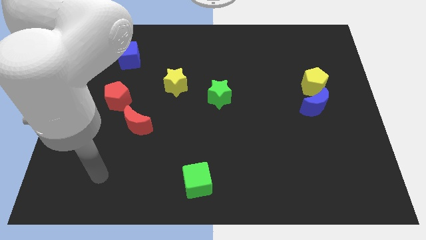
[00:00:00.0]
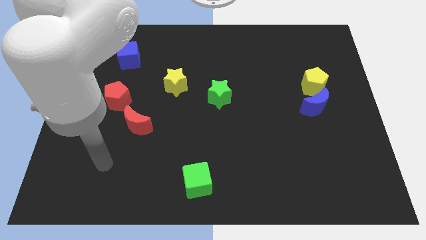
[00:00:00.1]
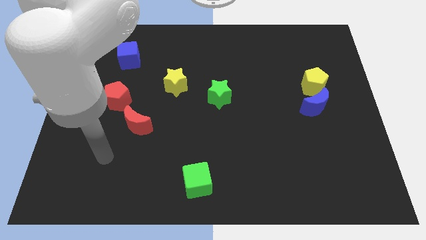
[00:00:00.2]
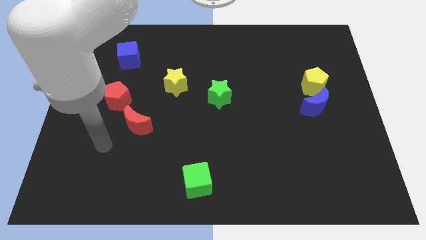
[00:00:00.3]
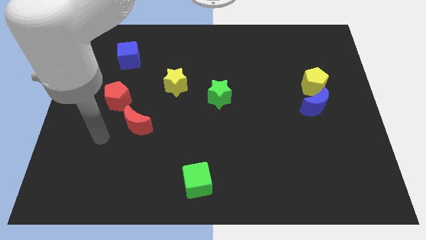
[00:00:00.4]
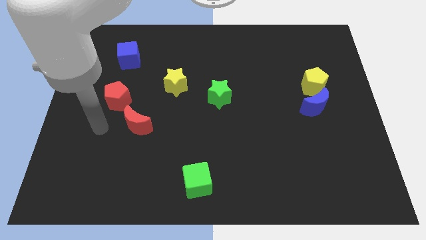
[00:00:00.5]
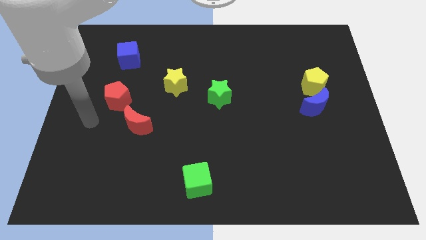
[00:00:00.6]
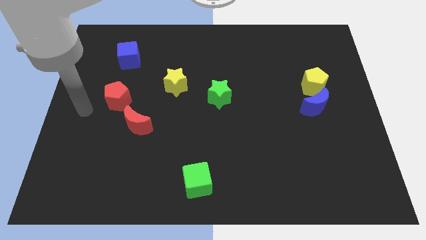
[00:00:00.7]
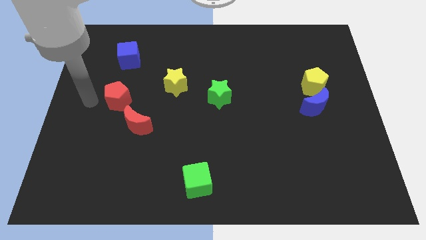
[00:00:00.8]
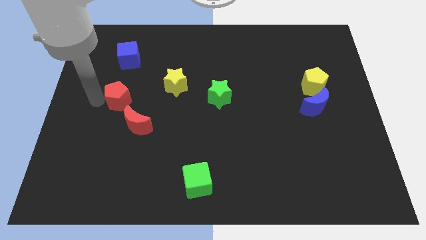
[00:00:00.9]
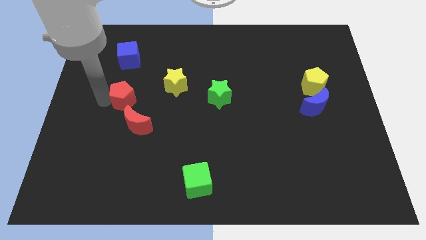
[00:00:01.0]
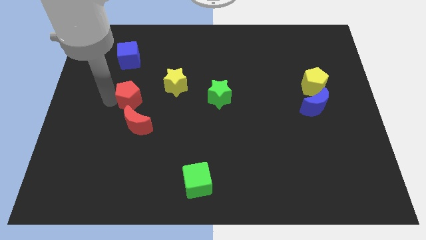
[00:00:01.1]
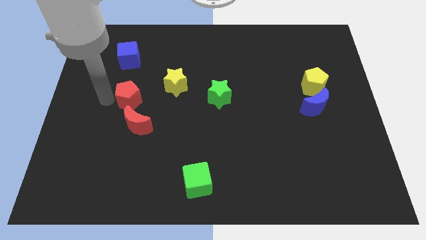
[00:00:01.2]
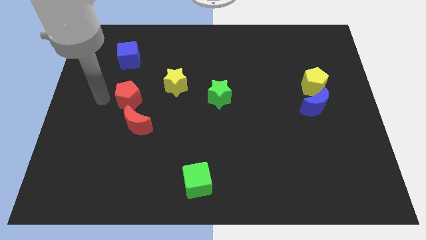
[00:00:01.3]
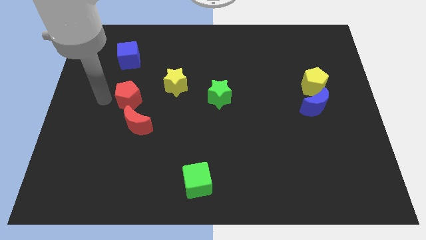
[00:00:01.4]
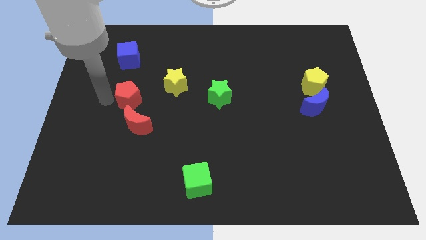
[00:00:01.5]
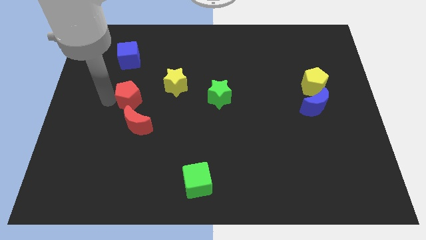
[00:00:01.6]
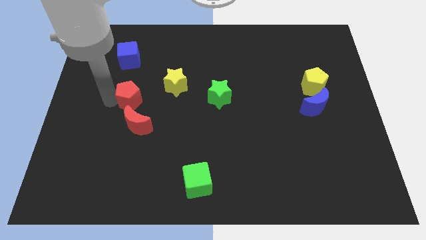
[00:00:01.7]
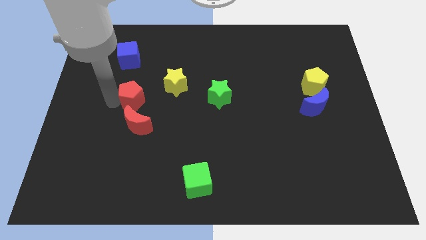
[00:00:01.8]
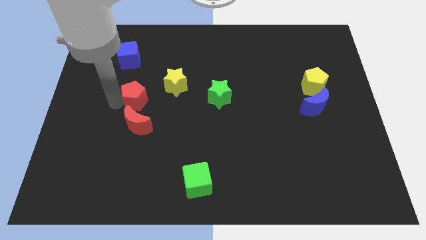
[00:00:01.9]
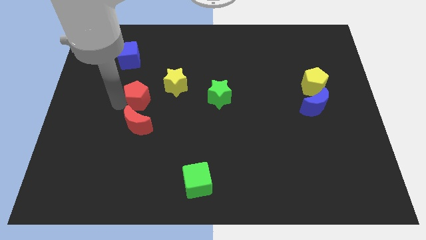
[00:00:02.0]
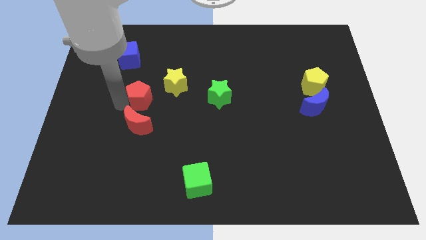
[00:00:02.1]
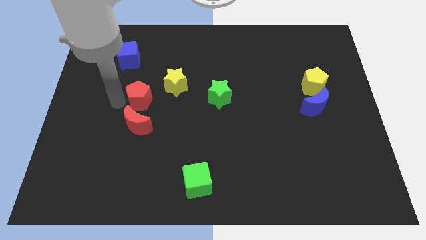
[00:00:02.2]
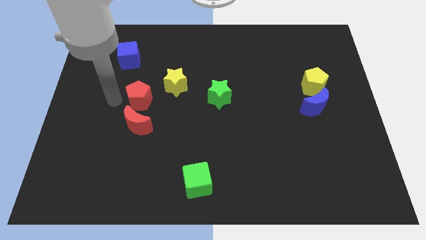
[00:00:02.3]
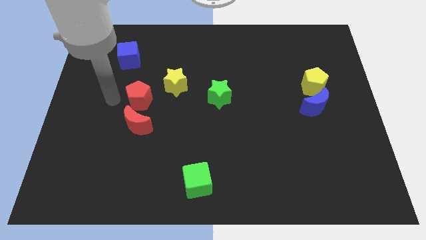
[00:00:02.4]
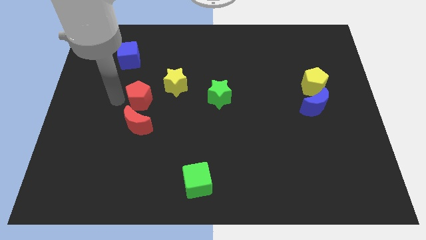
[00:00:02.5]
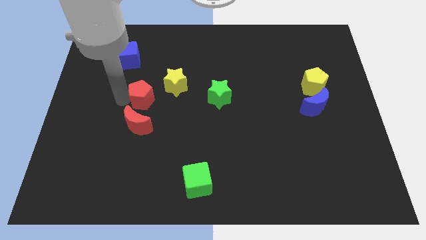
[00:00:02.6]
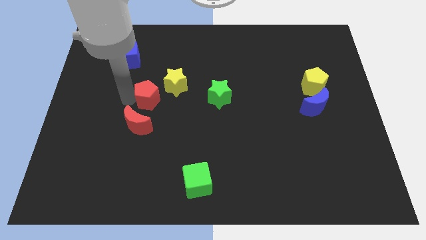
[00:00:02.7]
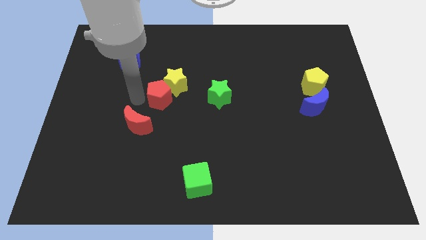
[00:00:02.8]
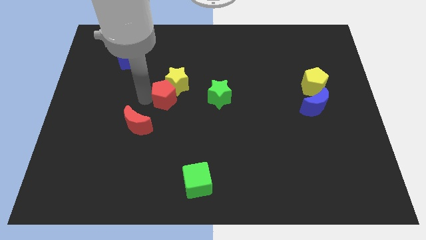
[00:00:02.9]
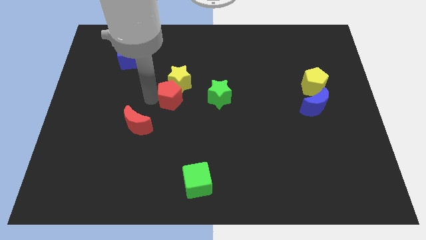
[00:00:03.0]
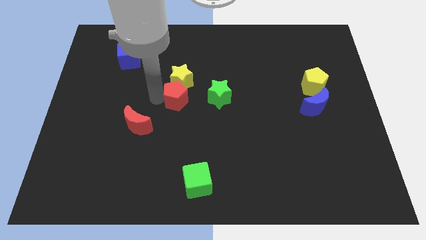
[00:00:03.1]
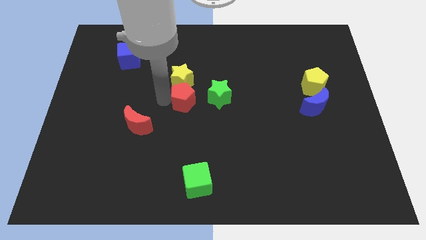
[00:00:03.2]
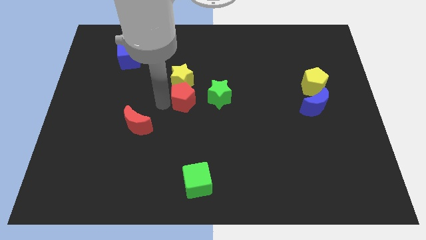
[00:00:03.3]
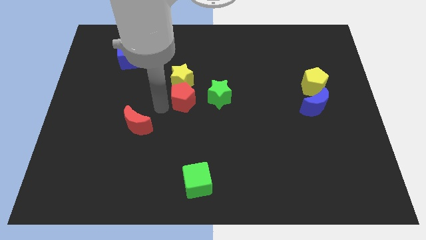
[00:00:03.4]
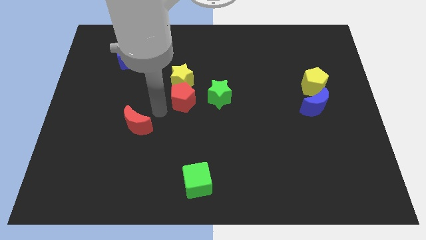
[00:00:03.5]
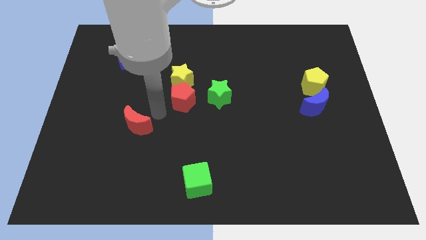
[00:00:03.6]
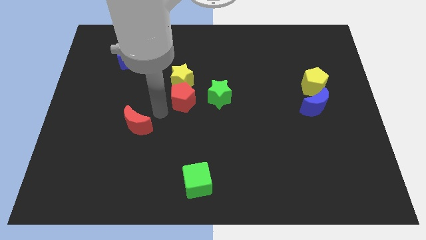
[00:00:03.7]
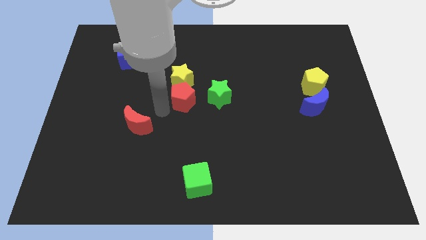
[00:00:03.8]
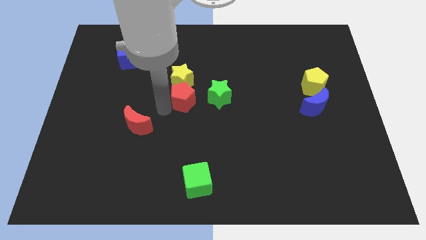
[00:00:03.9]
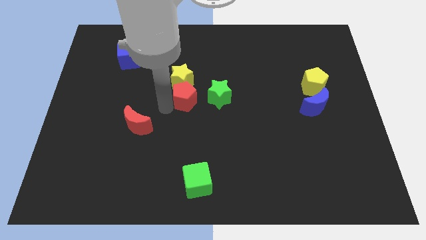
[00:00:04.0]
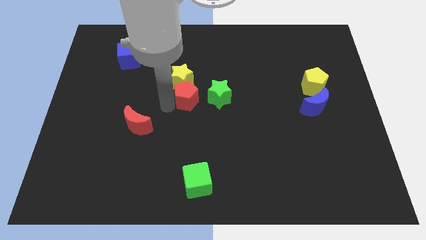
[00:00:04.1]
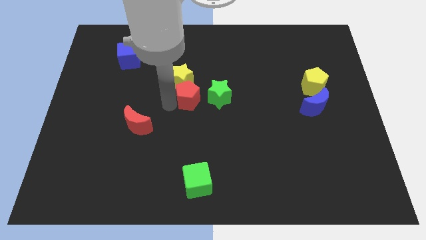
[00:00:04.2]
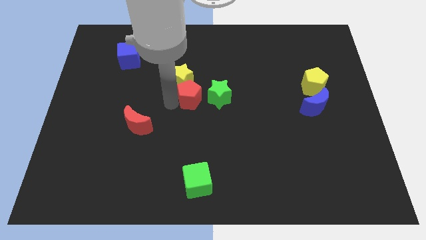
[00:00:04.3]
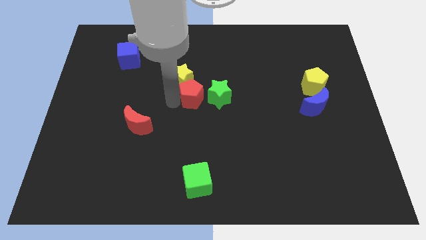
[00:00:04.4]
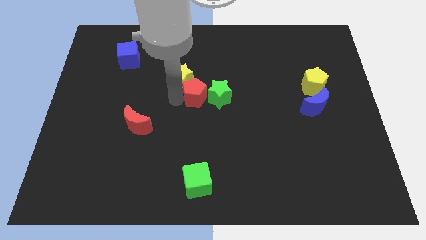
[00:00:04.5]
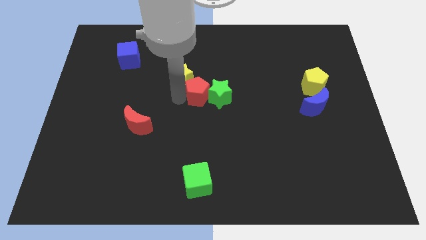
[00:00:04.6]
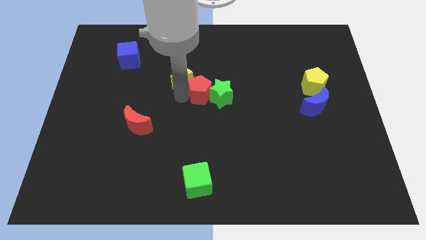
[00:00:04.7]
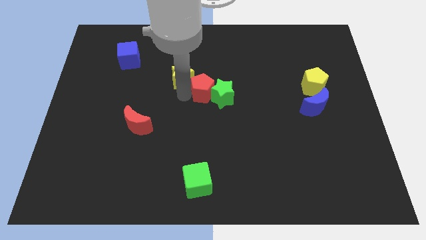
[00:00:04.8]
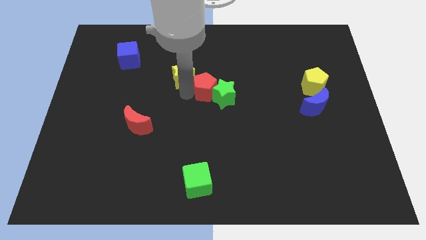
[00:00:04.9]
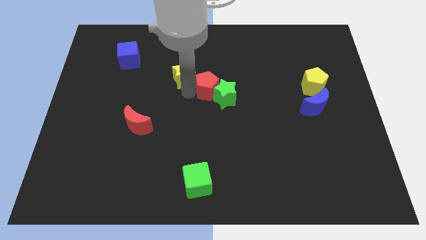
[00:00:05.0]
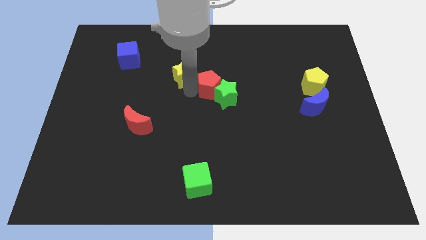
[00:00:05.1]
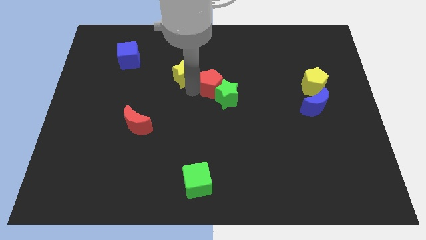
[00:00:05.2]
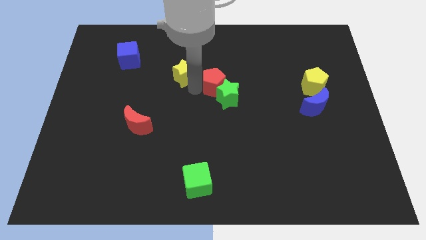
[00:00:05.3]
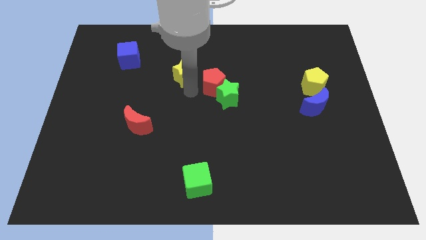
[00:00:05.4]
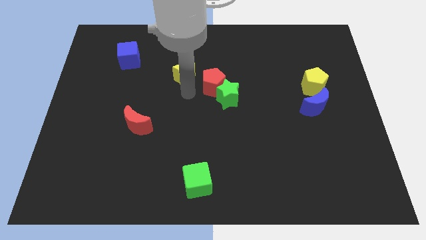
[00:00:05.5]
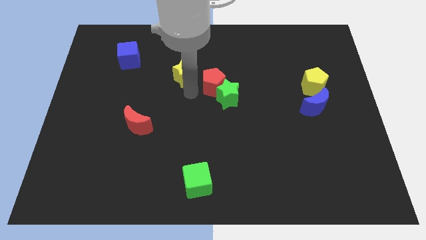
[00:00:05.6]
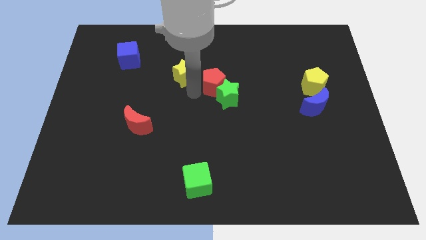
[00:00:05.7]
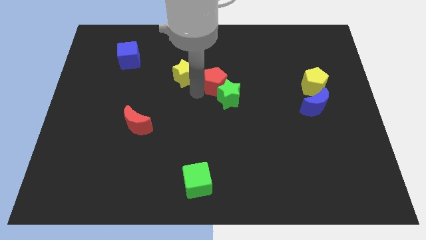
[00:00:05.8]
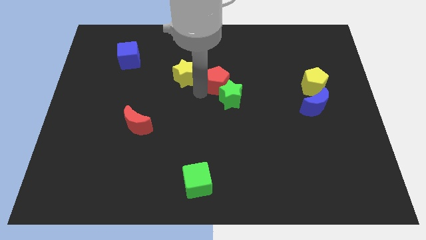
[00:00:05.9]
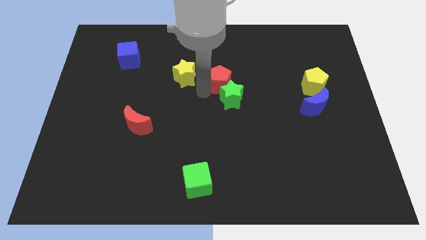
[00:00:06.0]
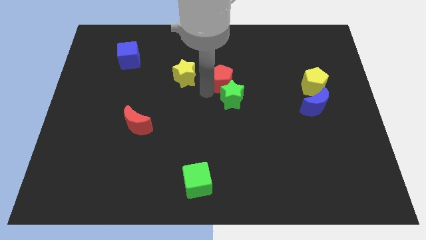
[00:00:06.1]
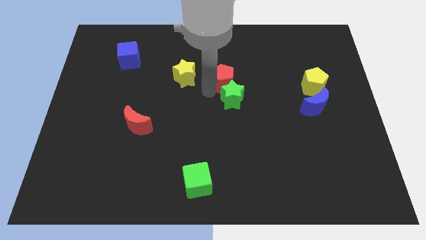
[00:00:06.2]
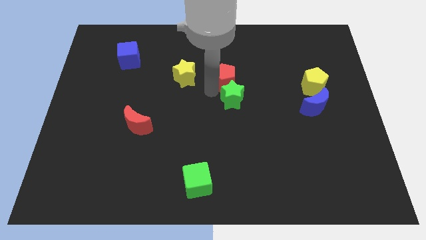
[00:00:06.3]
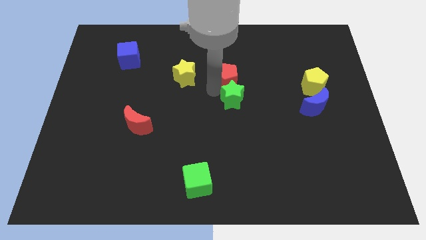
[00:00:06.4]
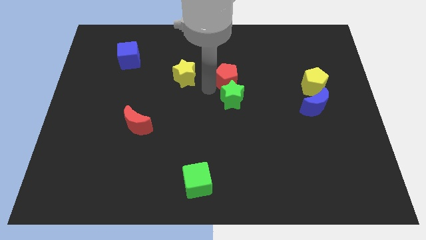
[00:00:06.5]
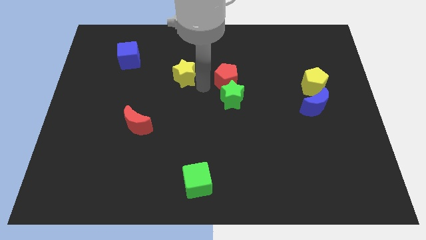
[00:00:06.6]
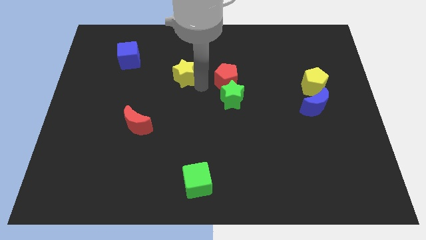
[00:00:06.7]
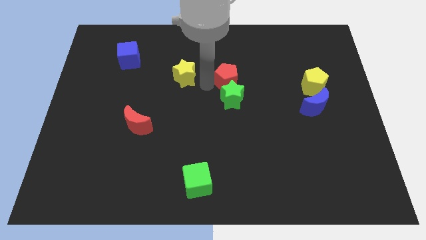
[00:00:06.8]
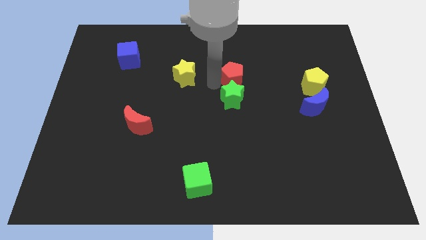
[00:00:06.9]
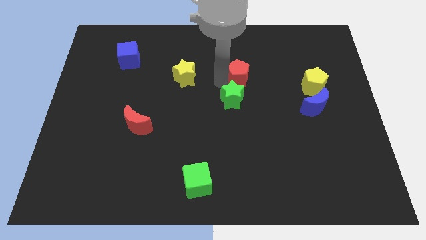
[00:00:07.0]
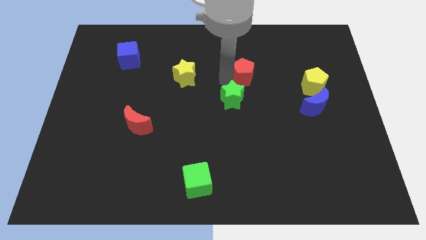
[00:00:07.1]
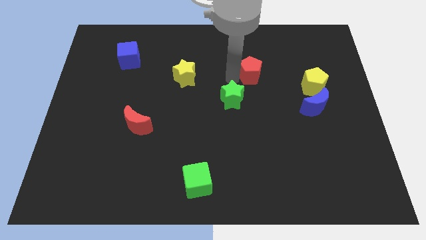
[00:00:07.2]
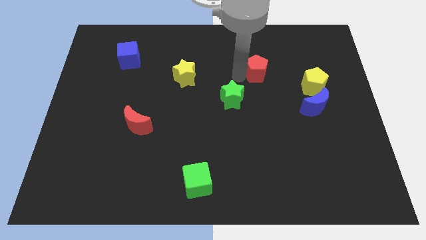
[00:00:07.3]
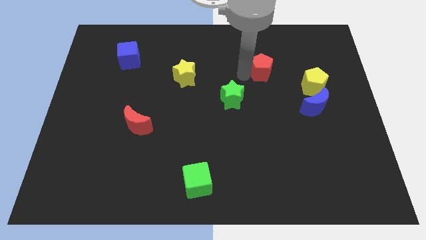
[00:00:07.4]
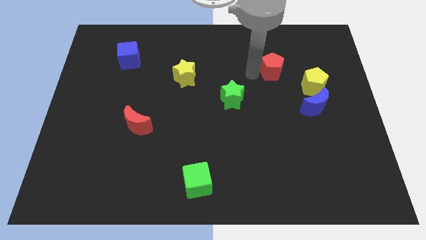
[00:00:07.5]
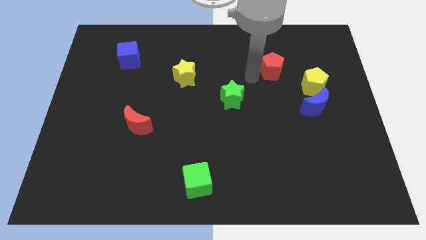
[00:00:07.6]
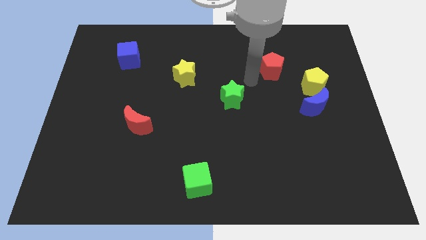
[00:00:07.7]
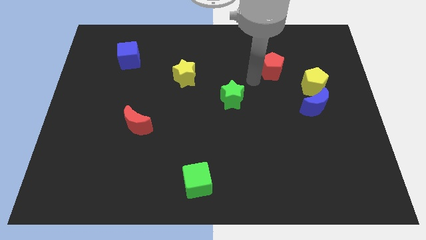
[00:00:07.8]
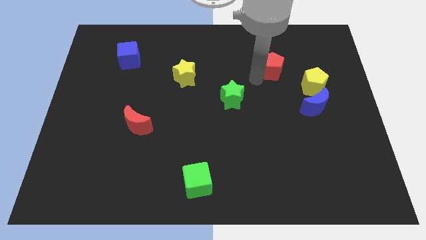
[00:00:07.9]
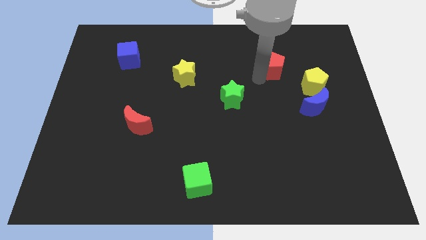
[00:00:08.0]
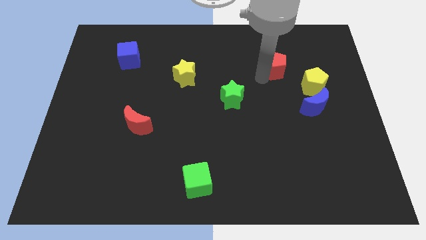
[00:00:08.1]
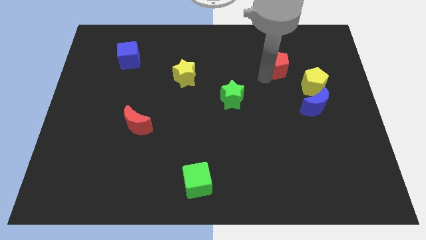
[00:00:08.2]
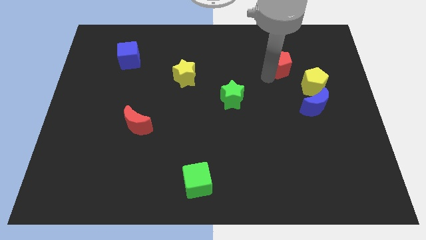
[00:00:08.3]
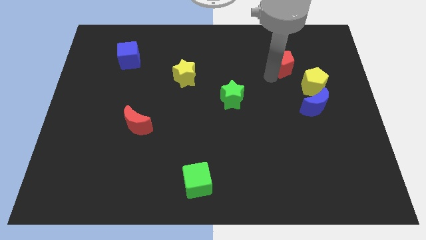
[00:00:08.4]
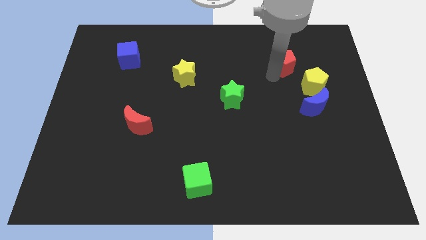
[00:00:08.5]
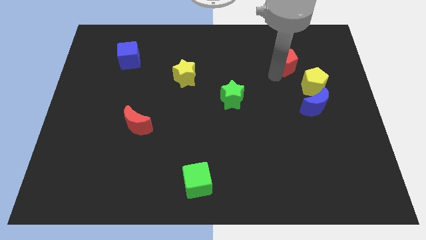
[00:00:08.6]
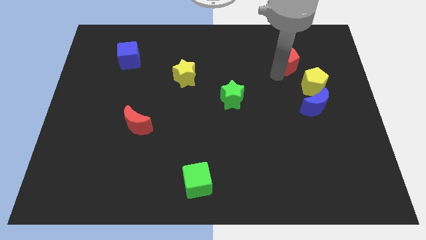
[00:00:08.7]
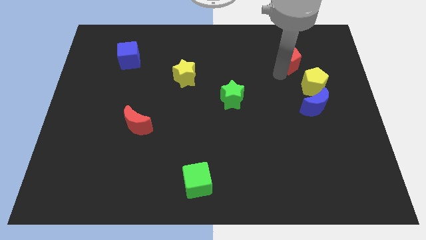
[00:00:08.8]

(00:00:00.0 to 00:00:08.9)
push the red pentagon to the top of the yellow pentagon
